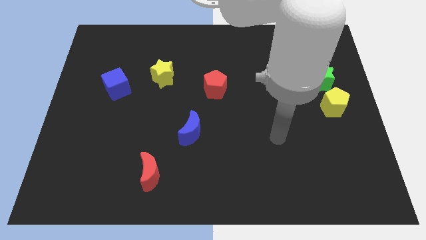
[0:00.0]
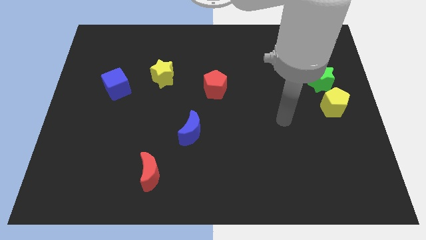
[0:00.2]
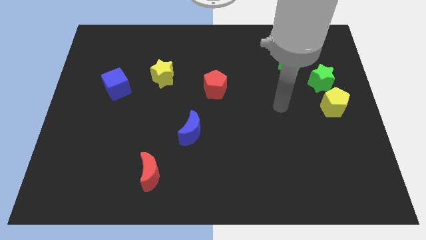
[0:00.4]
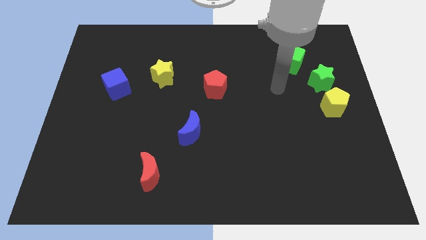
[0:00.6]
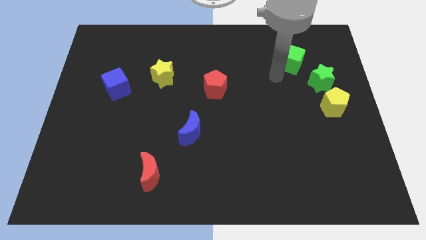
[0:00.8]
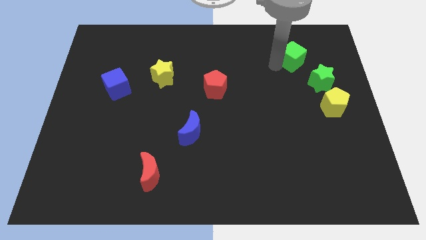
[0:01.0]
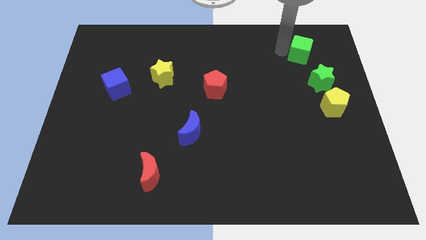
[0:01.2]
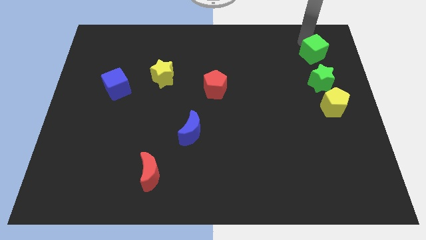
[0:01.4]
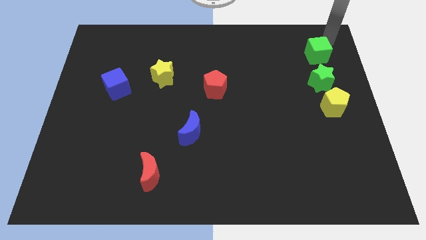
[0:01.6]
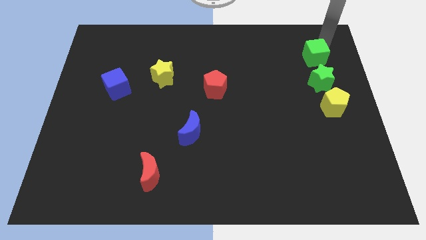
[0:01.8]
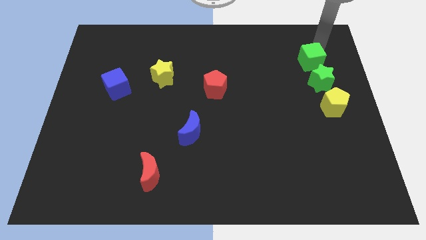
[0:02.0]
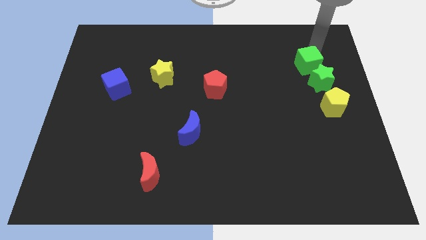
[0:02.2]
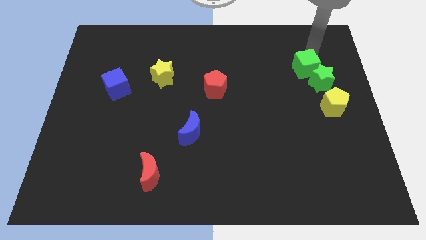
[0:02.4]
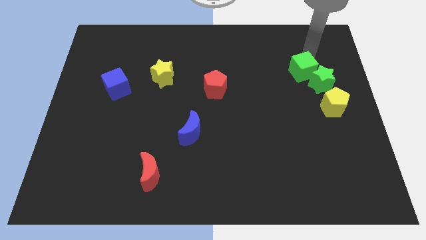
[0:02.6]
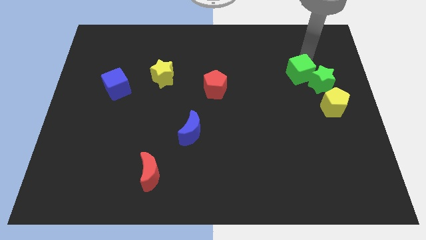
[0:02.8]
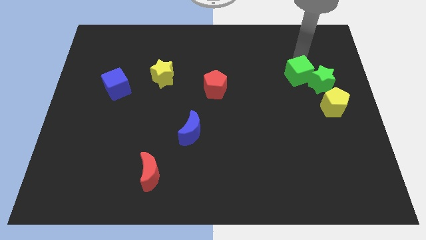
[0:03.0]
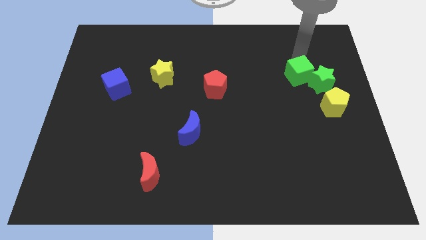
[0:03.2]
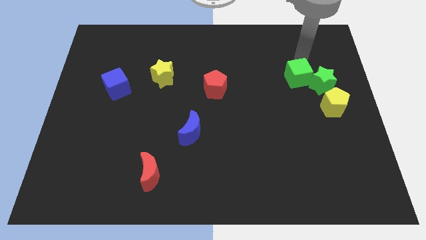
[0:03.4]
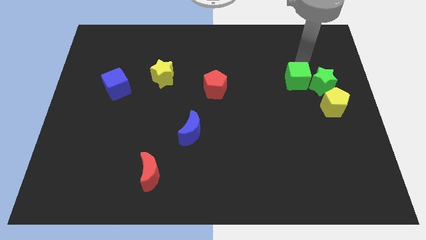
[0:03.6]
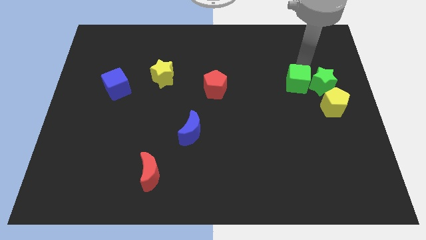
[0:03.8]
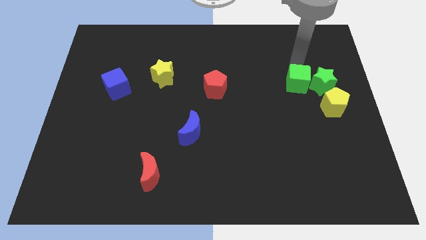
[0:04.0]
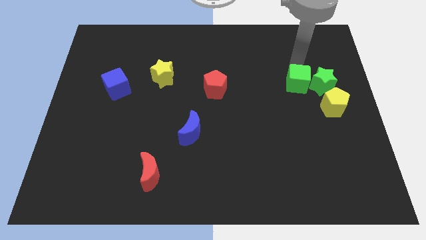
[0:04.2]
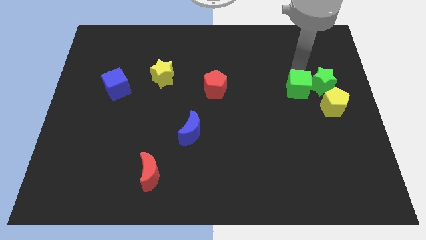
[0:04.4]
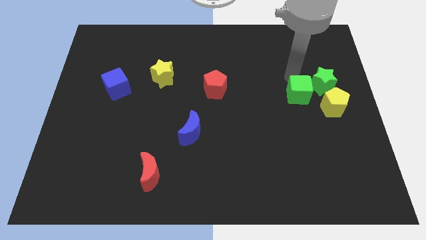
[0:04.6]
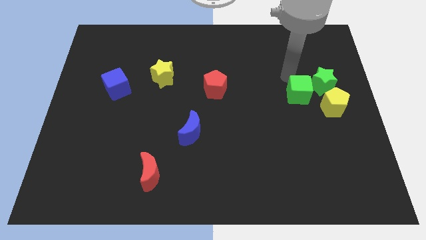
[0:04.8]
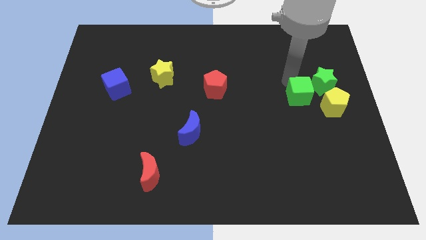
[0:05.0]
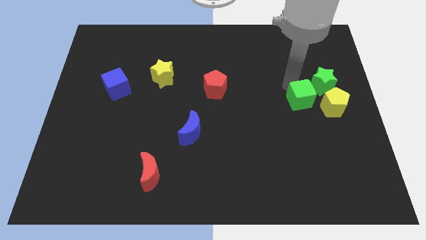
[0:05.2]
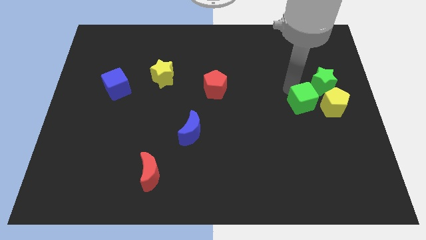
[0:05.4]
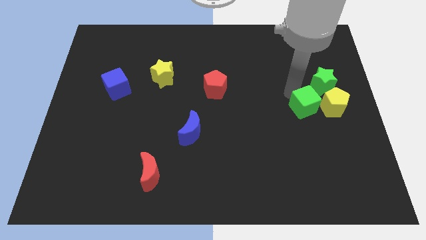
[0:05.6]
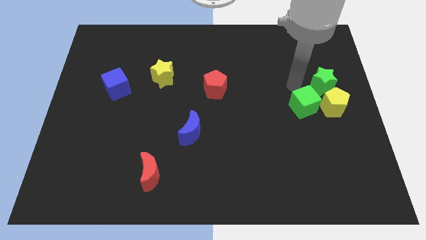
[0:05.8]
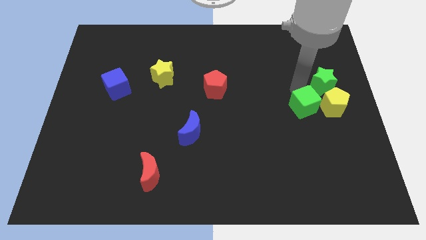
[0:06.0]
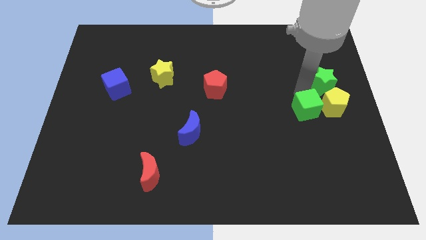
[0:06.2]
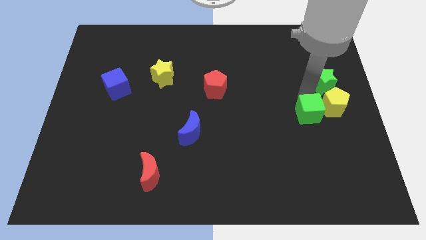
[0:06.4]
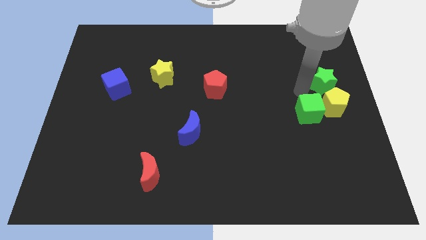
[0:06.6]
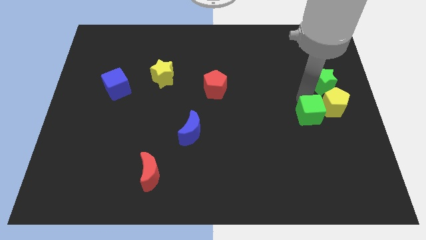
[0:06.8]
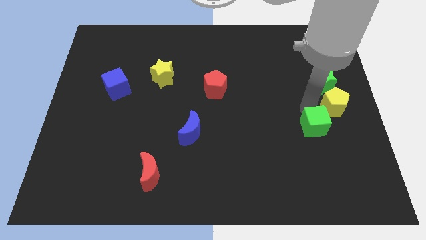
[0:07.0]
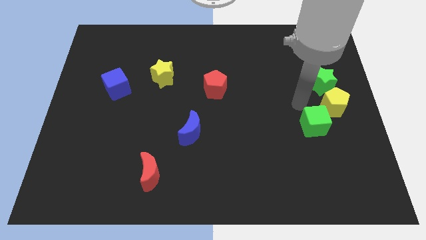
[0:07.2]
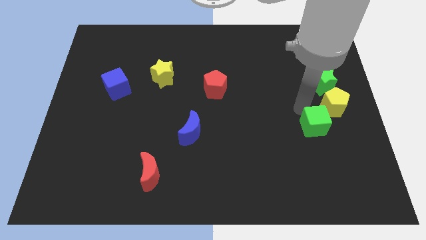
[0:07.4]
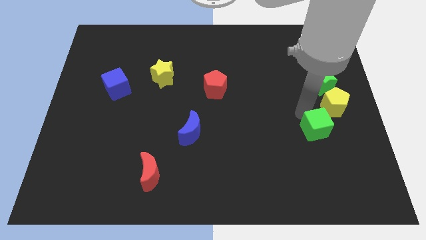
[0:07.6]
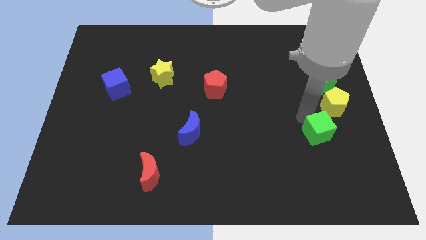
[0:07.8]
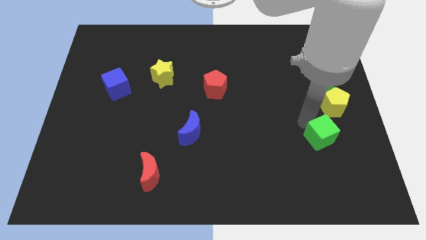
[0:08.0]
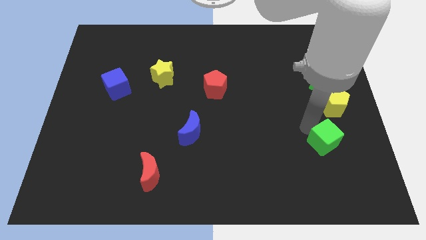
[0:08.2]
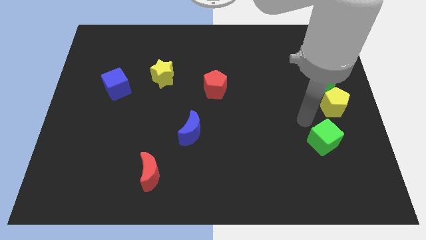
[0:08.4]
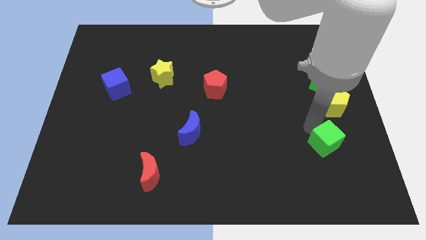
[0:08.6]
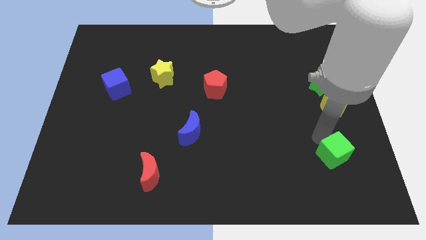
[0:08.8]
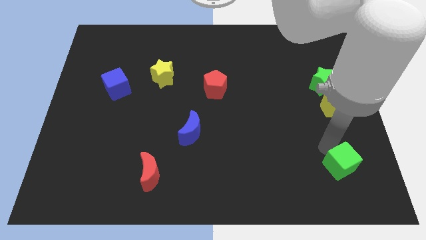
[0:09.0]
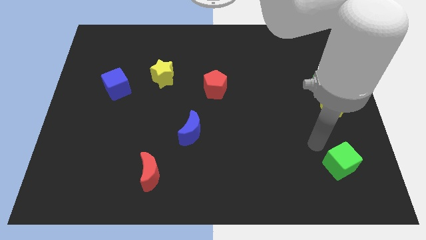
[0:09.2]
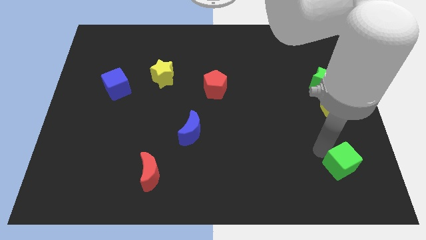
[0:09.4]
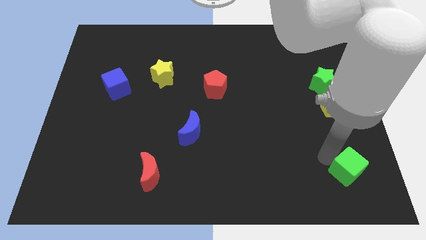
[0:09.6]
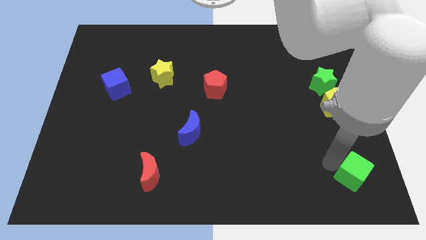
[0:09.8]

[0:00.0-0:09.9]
put the green cube to the bottom right corner

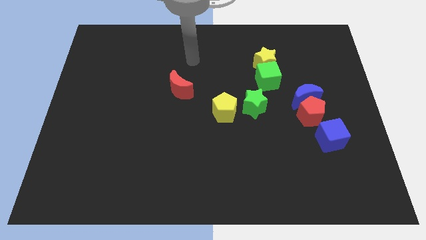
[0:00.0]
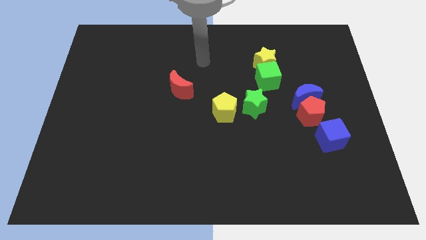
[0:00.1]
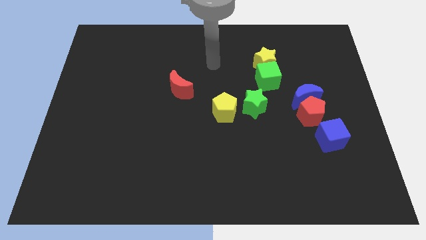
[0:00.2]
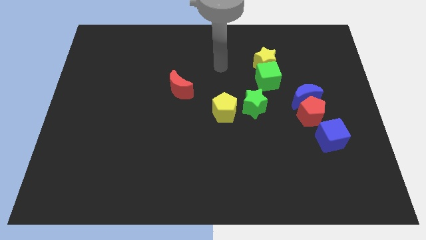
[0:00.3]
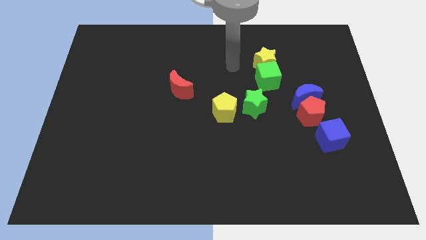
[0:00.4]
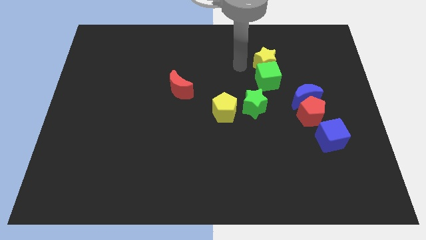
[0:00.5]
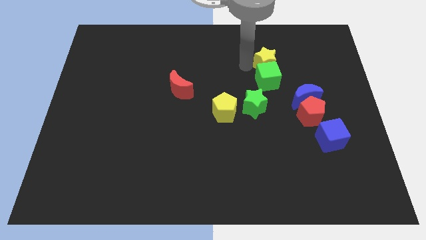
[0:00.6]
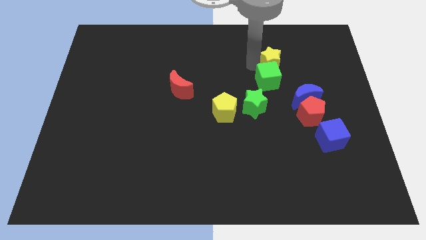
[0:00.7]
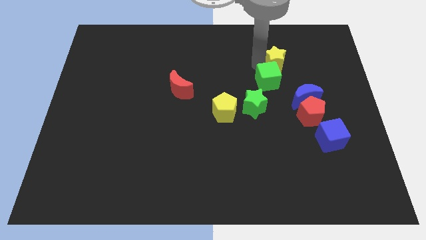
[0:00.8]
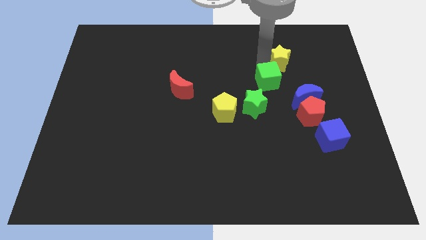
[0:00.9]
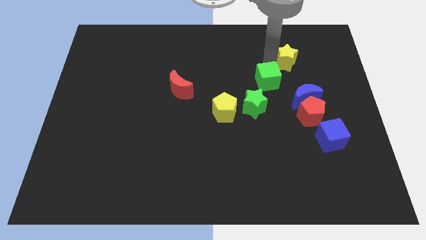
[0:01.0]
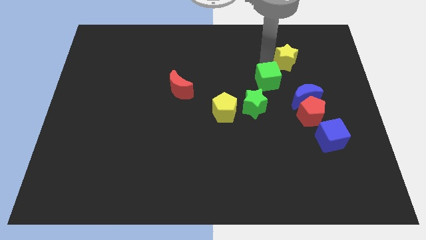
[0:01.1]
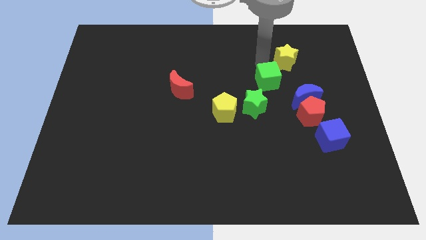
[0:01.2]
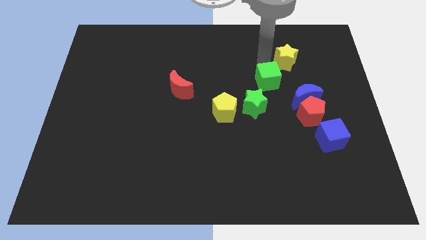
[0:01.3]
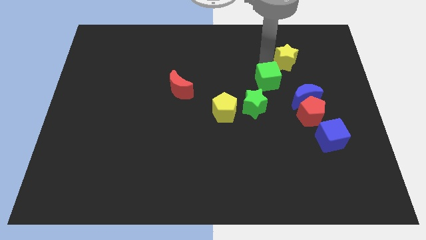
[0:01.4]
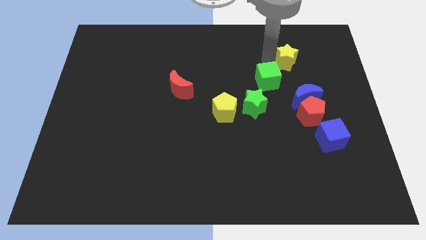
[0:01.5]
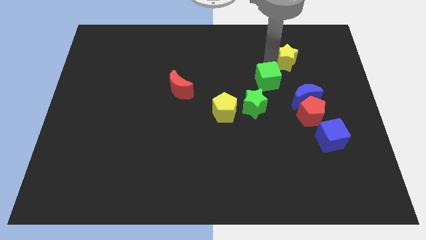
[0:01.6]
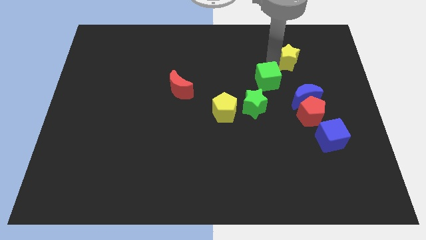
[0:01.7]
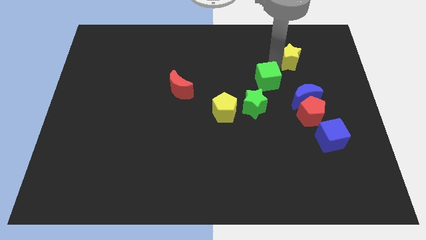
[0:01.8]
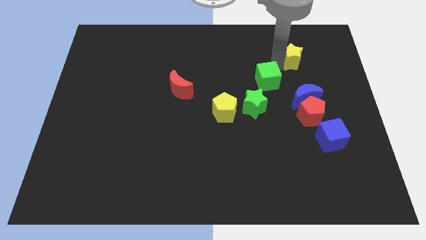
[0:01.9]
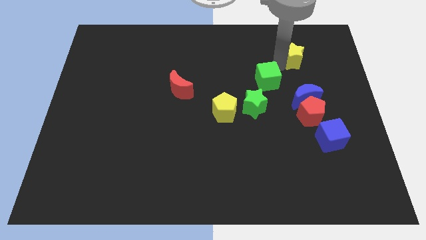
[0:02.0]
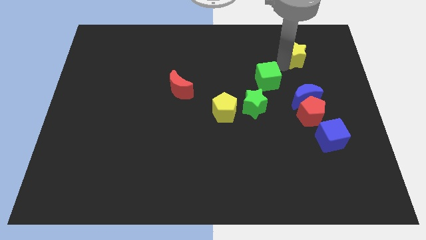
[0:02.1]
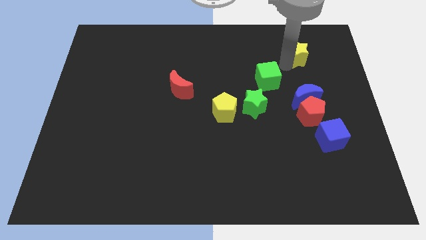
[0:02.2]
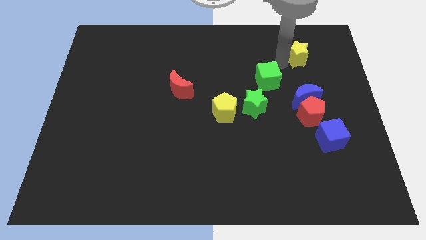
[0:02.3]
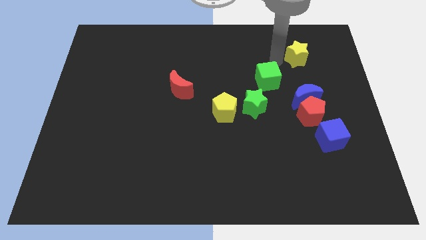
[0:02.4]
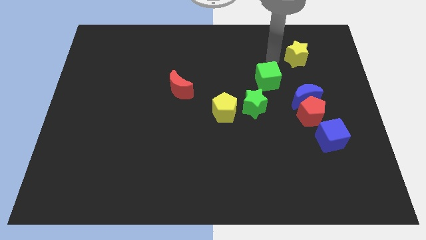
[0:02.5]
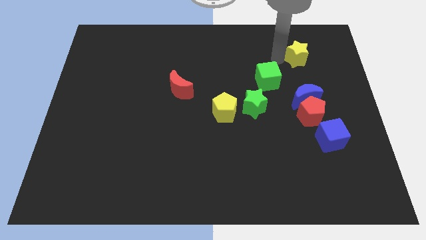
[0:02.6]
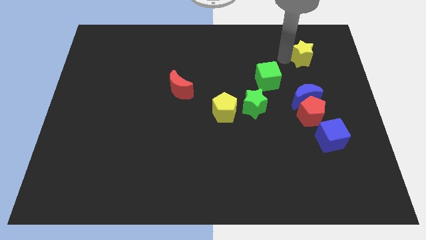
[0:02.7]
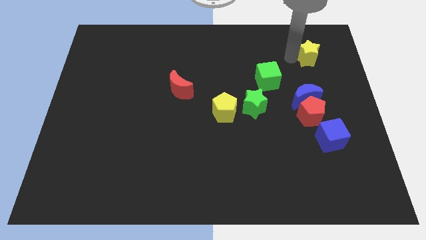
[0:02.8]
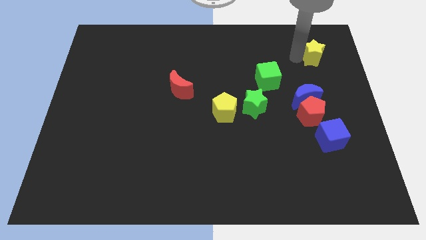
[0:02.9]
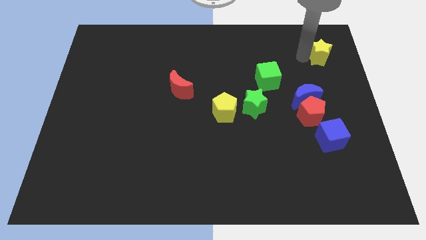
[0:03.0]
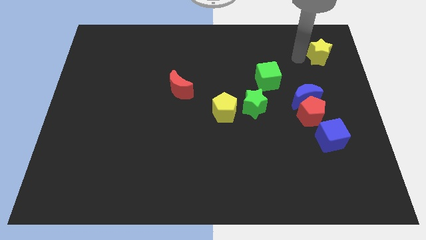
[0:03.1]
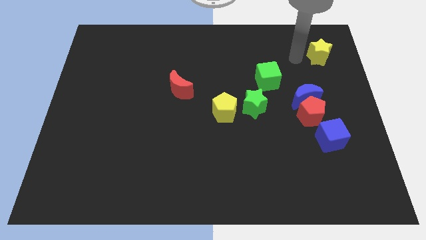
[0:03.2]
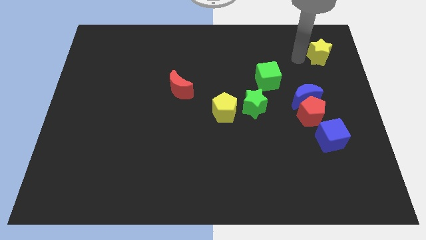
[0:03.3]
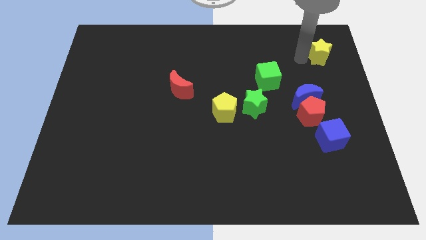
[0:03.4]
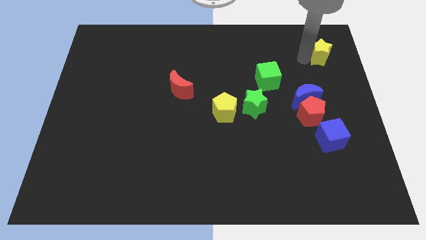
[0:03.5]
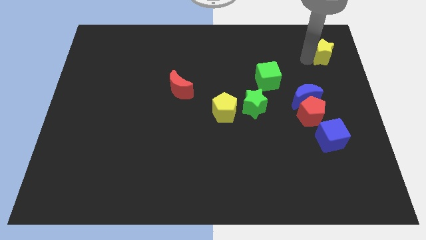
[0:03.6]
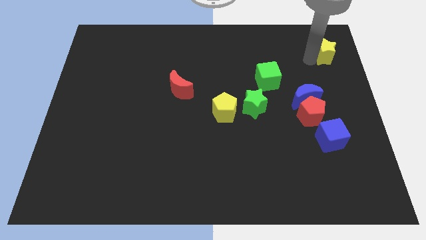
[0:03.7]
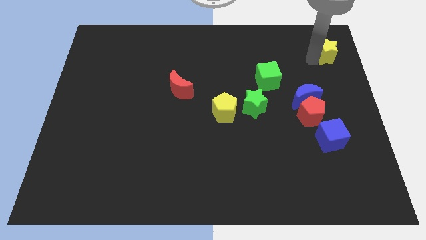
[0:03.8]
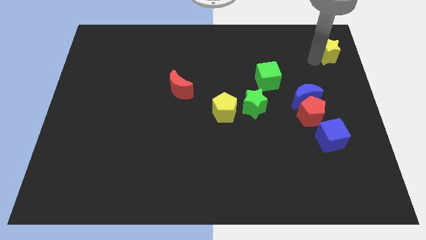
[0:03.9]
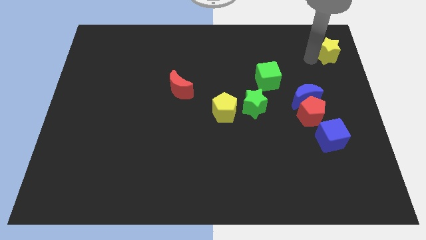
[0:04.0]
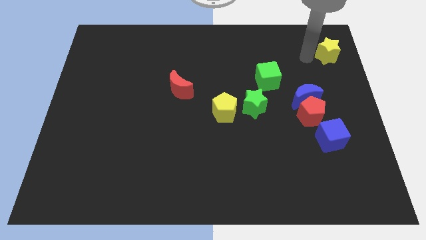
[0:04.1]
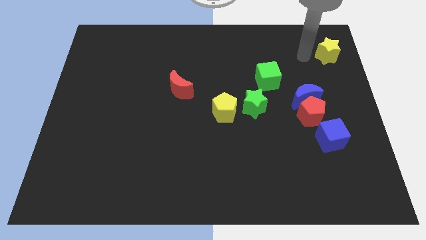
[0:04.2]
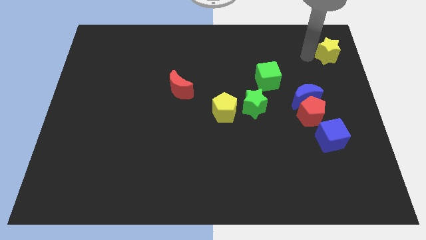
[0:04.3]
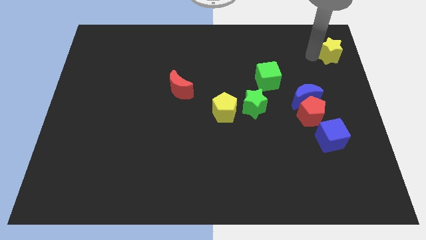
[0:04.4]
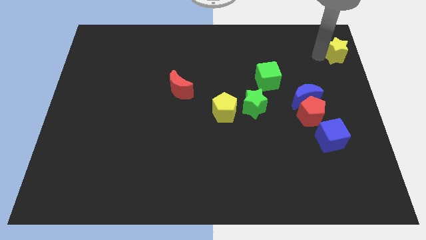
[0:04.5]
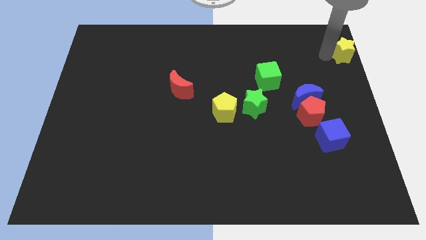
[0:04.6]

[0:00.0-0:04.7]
move the yellow star to the top right
